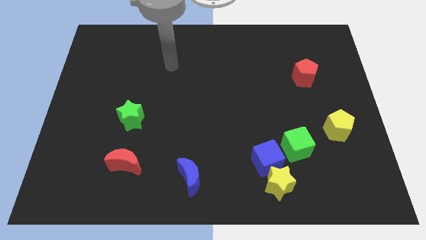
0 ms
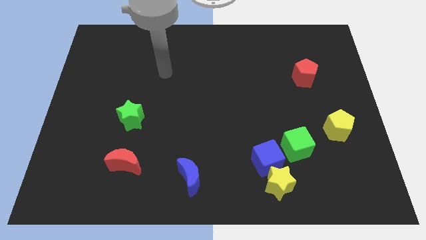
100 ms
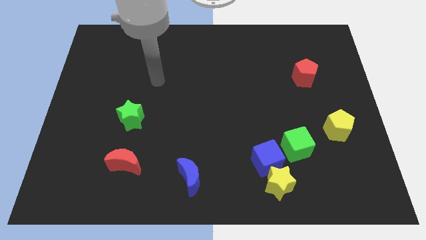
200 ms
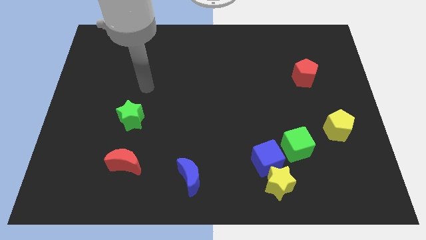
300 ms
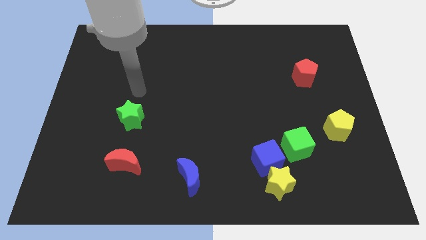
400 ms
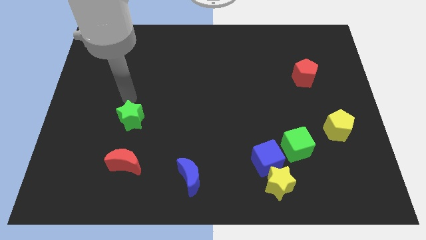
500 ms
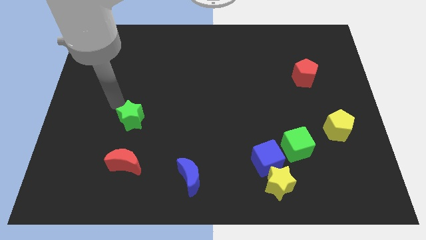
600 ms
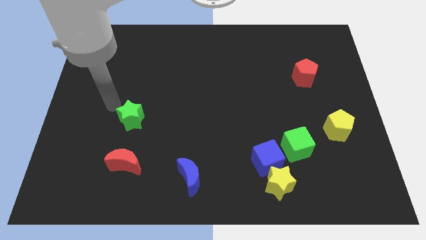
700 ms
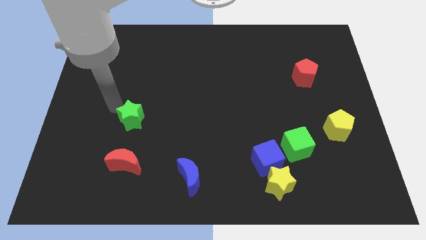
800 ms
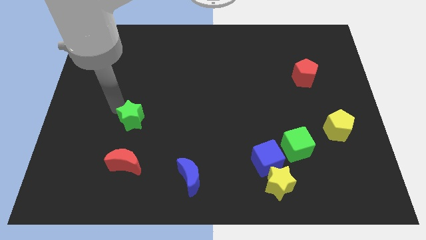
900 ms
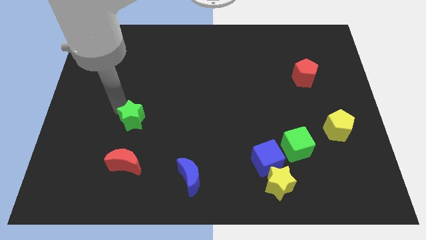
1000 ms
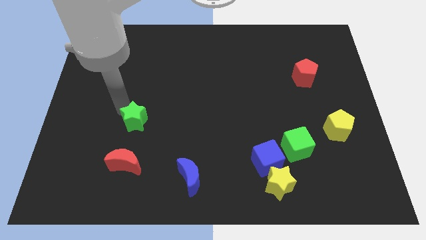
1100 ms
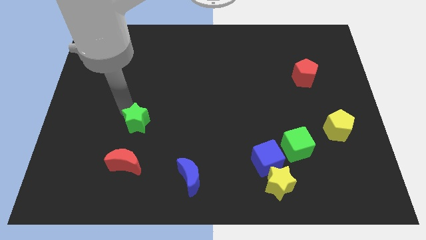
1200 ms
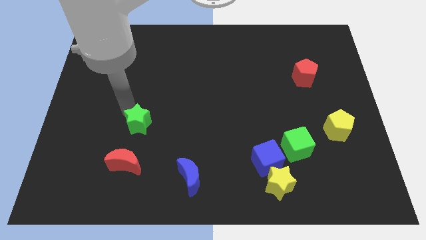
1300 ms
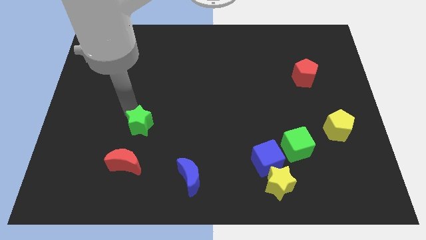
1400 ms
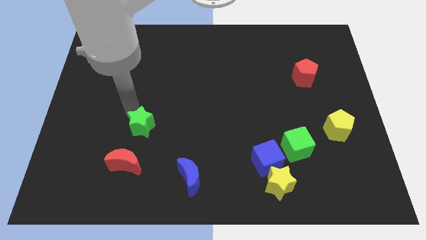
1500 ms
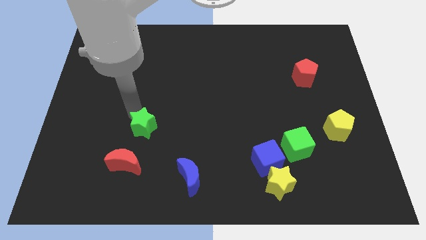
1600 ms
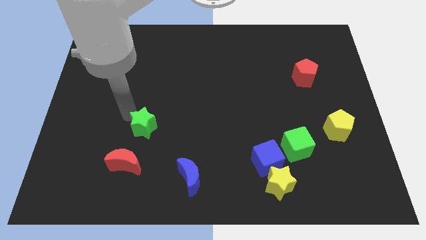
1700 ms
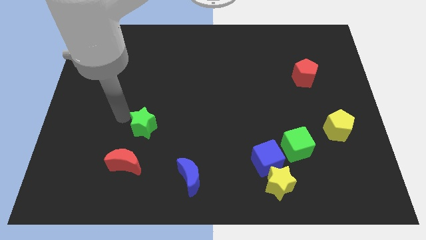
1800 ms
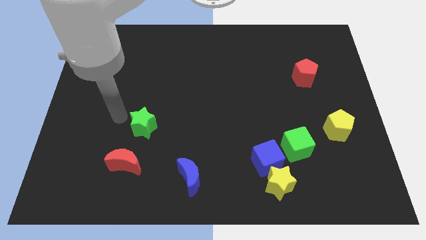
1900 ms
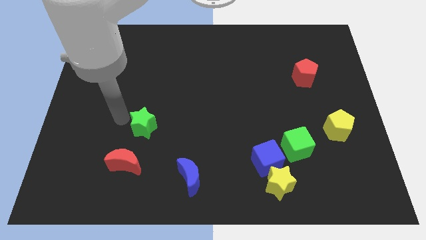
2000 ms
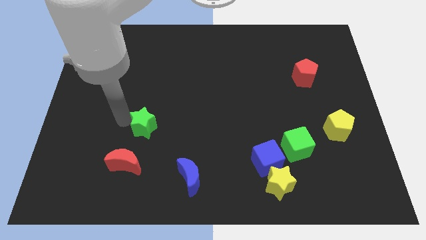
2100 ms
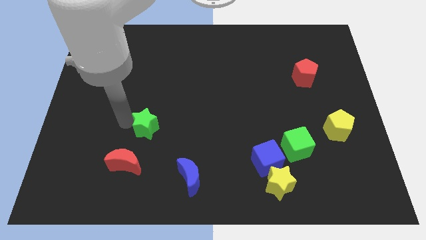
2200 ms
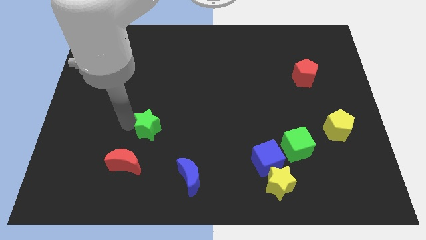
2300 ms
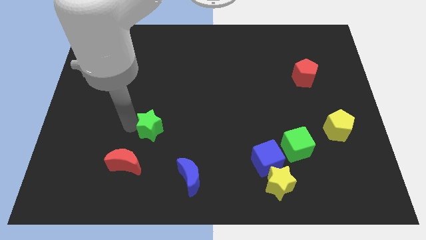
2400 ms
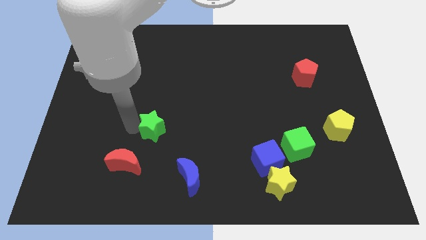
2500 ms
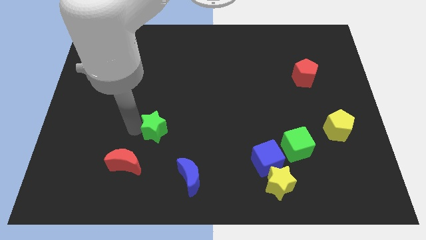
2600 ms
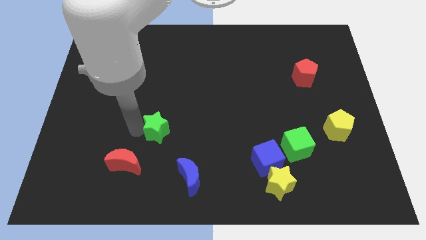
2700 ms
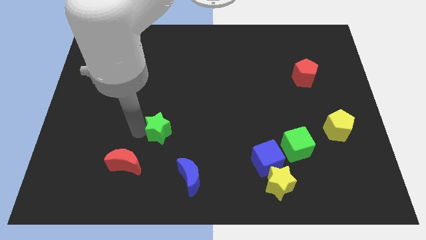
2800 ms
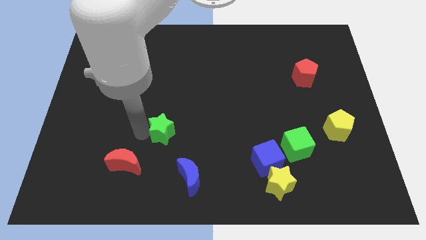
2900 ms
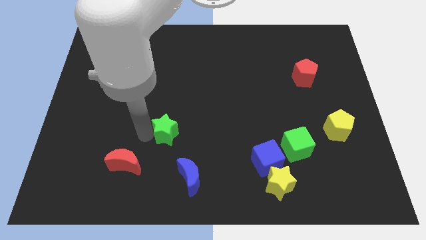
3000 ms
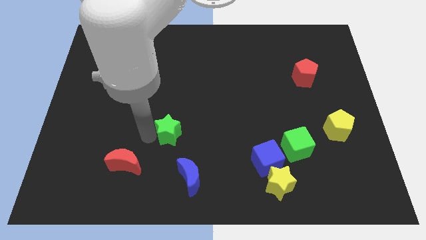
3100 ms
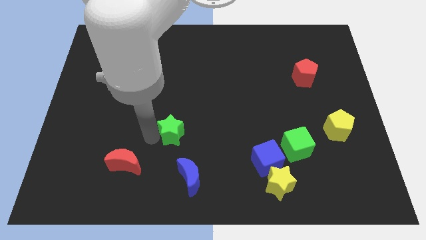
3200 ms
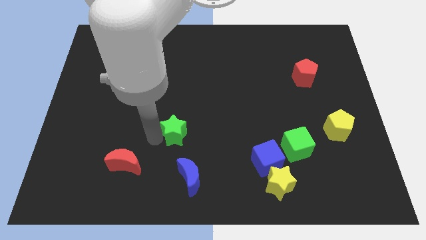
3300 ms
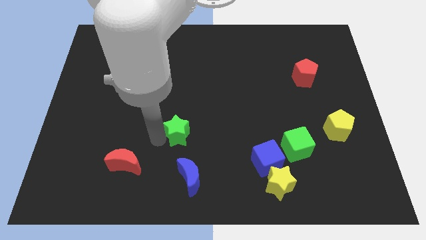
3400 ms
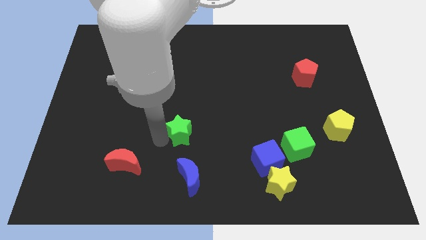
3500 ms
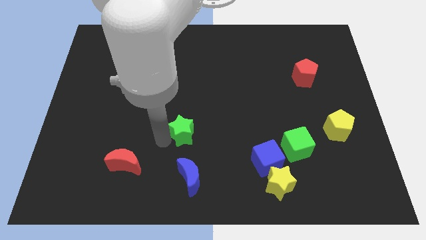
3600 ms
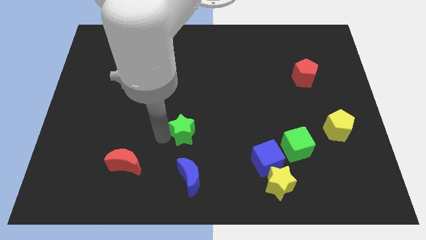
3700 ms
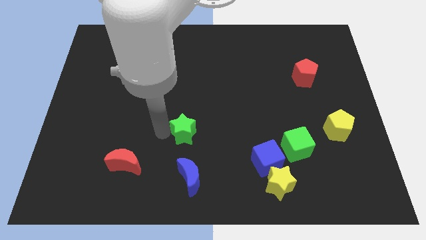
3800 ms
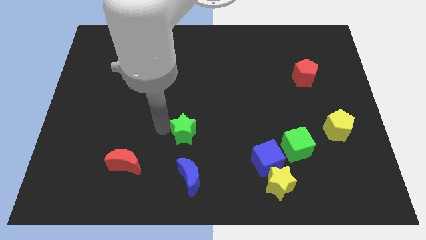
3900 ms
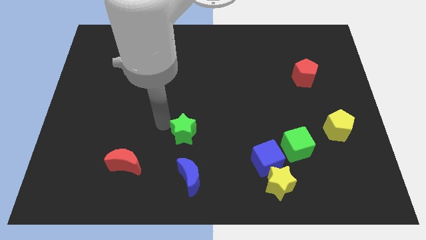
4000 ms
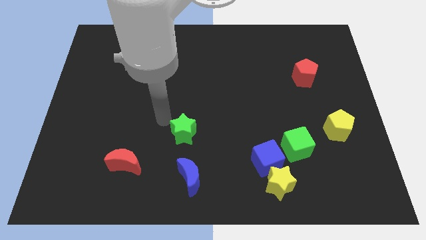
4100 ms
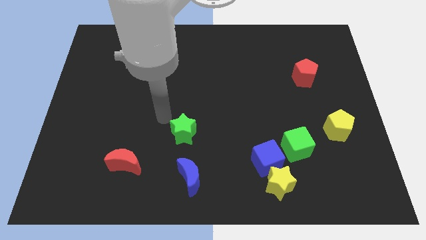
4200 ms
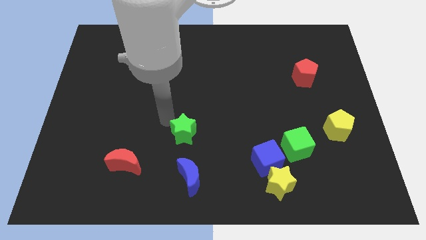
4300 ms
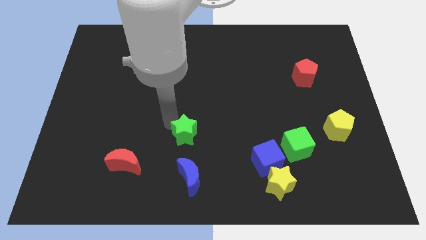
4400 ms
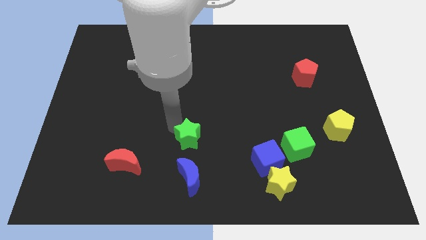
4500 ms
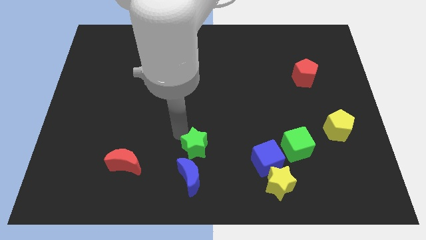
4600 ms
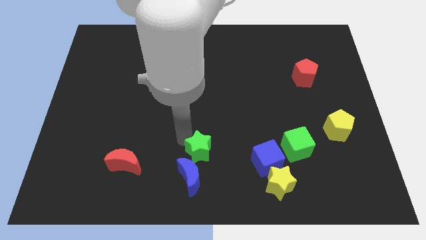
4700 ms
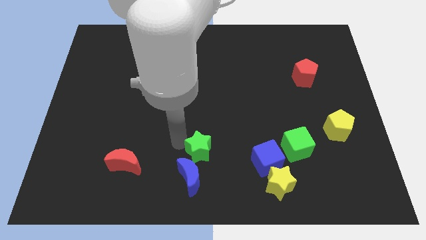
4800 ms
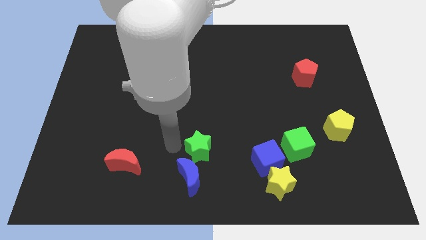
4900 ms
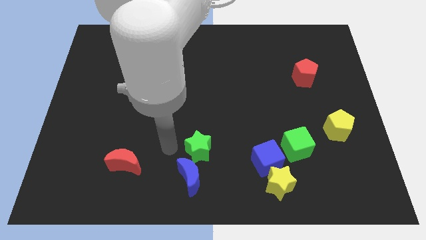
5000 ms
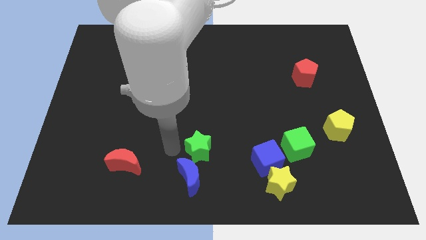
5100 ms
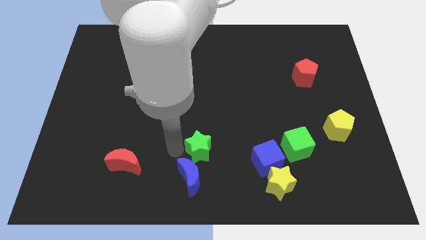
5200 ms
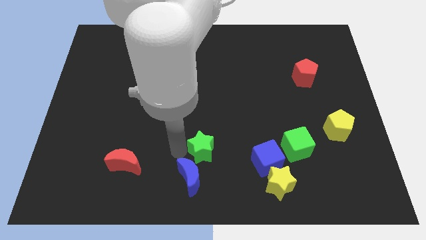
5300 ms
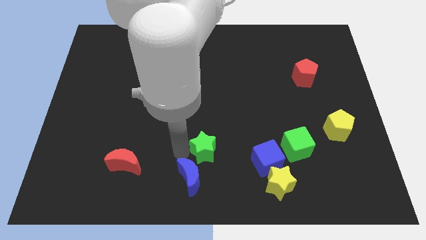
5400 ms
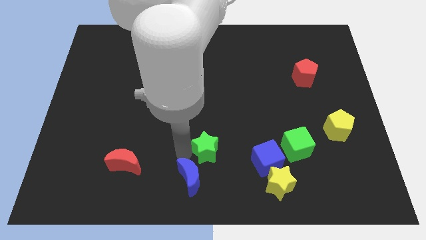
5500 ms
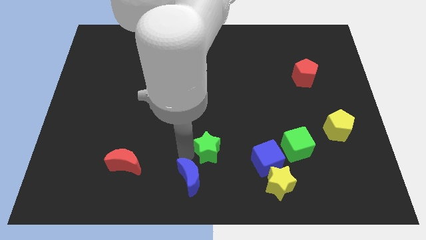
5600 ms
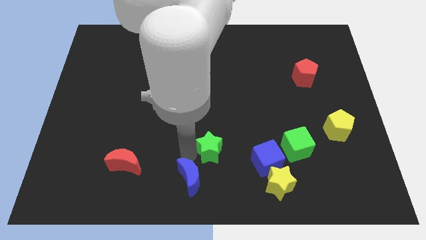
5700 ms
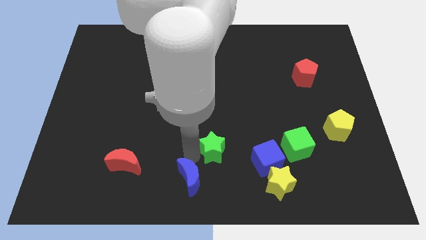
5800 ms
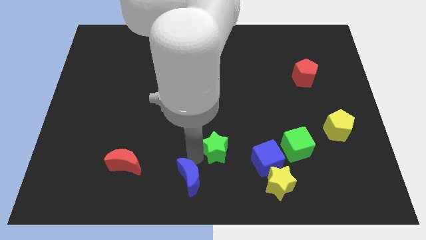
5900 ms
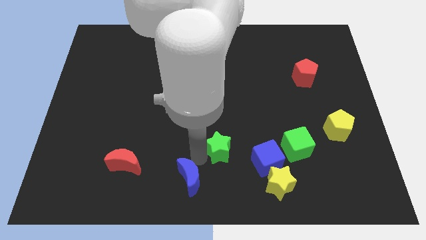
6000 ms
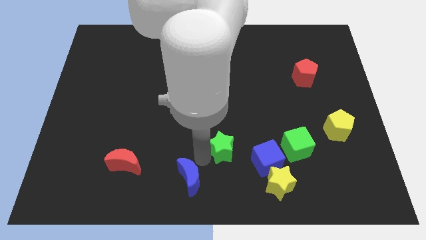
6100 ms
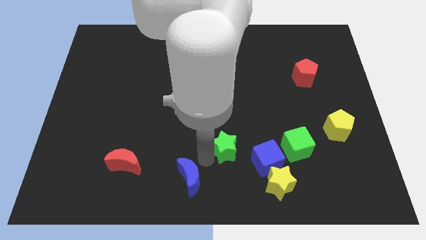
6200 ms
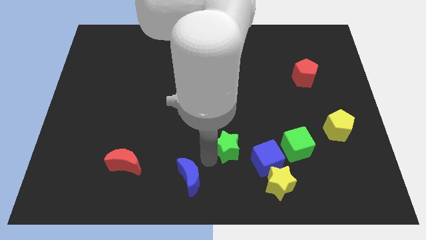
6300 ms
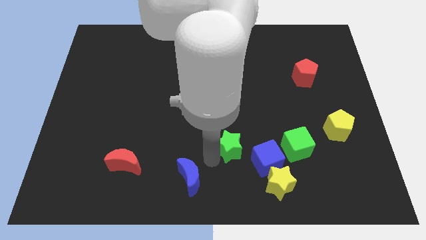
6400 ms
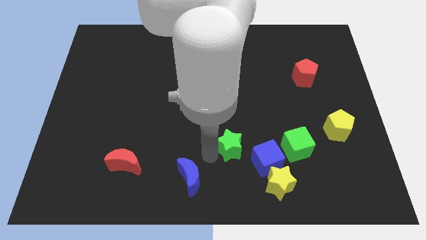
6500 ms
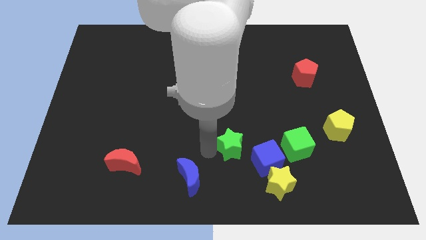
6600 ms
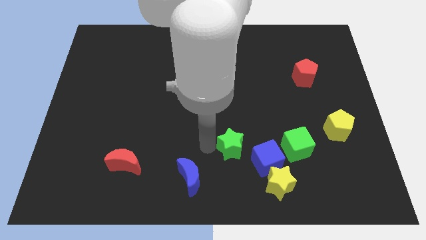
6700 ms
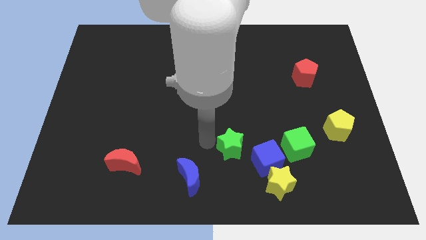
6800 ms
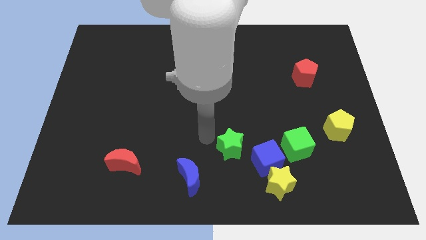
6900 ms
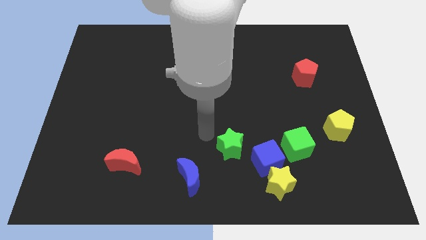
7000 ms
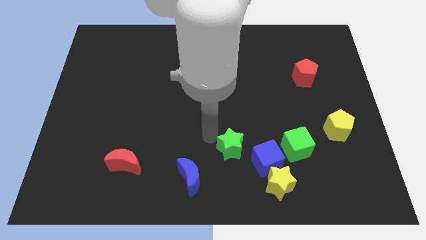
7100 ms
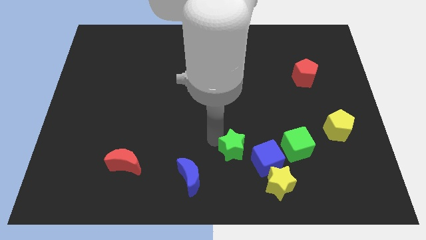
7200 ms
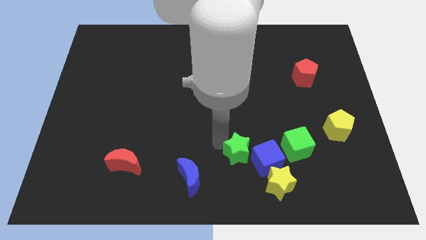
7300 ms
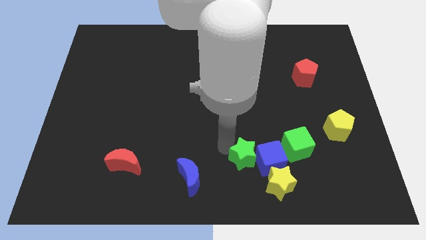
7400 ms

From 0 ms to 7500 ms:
move the green star next to the blue cube
